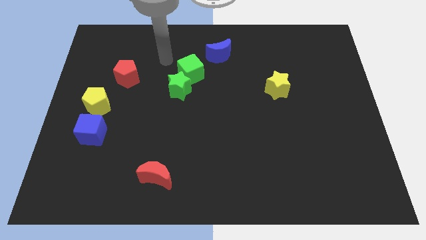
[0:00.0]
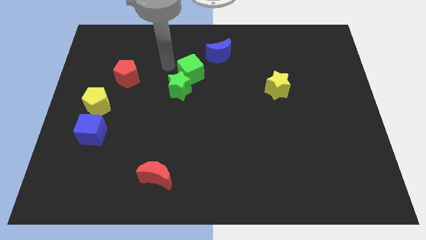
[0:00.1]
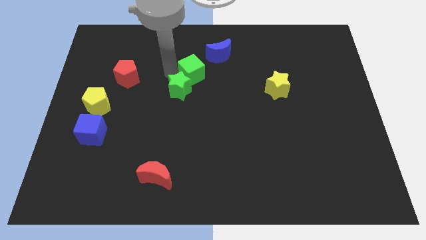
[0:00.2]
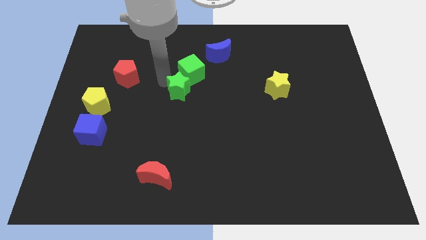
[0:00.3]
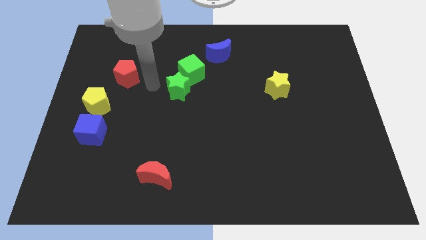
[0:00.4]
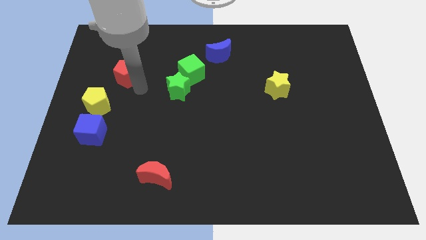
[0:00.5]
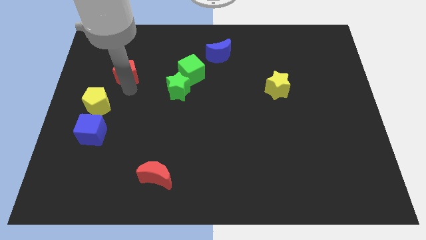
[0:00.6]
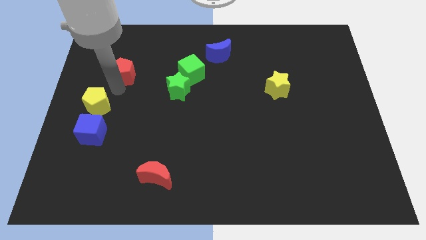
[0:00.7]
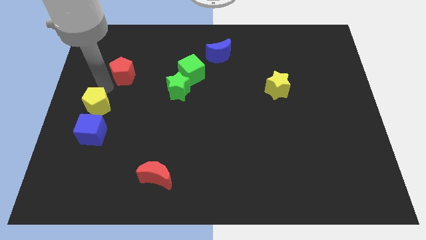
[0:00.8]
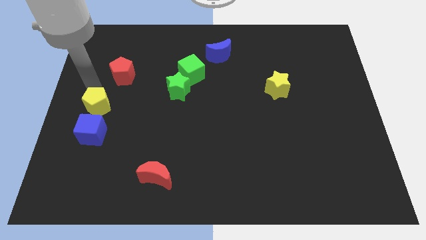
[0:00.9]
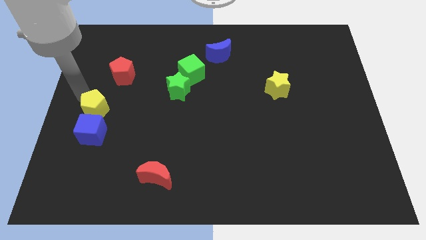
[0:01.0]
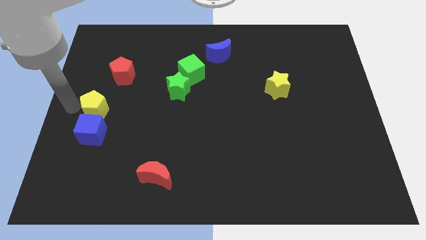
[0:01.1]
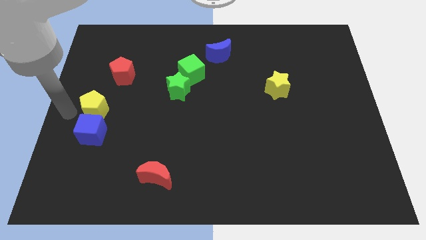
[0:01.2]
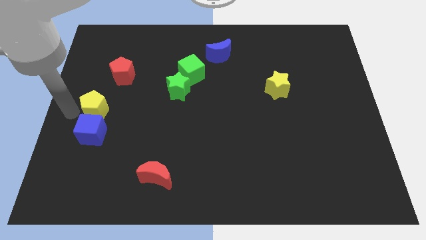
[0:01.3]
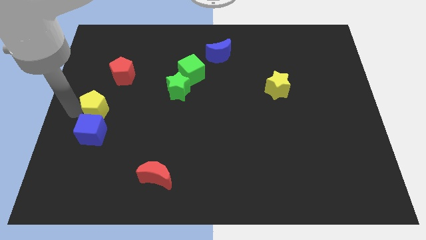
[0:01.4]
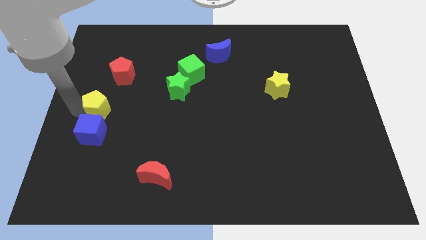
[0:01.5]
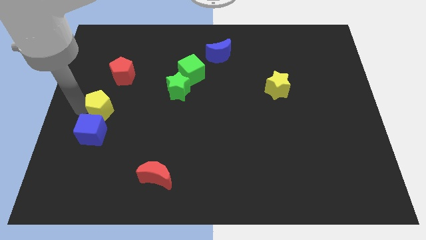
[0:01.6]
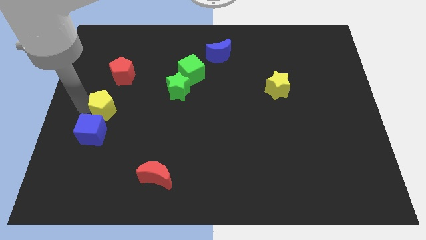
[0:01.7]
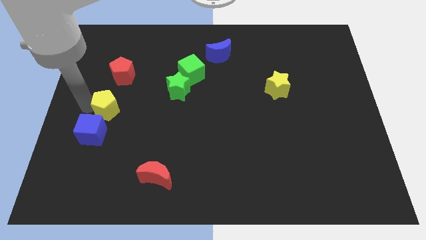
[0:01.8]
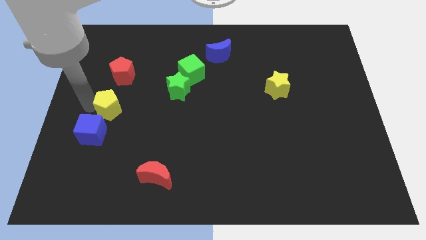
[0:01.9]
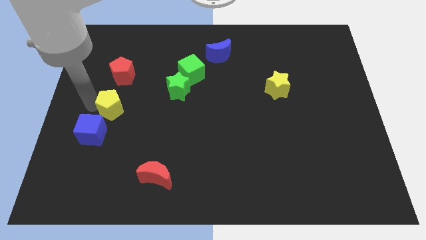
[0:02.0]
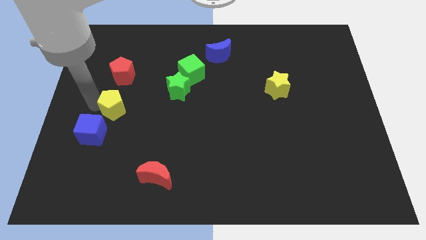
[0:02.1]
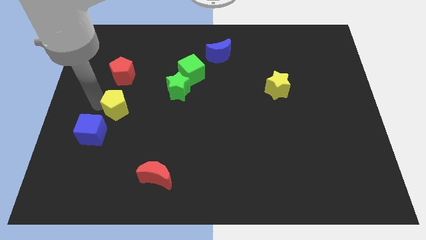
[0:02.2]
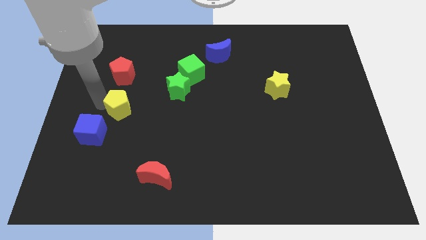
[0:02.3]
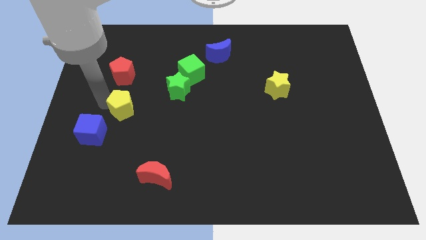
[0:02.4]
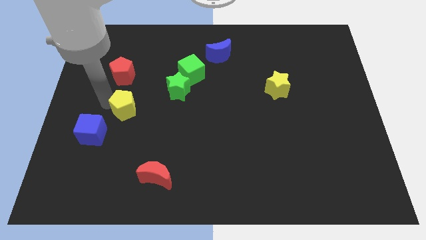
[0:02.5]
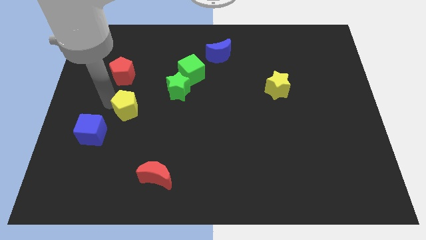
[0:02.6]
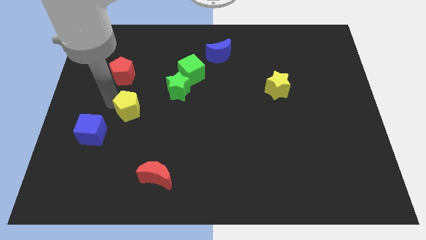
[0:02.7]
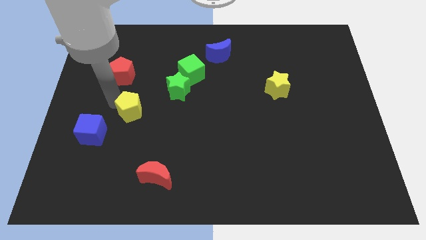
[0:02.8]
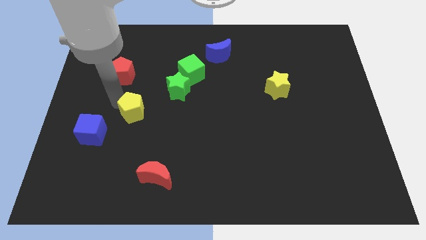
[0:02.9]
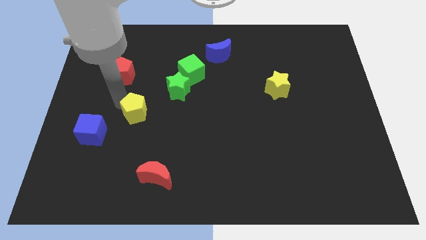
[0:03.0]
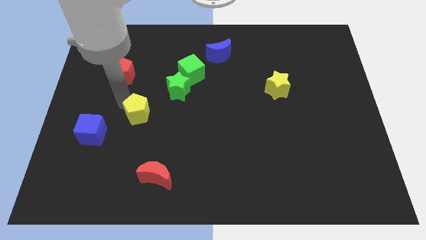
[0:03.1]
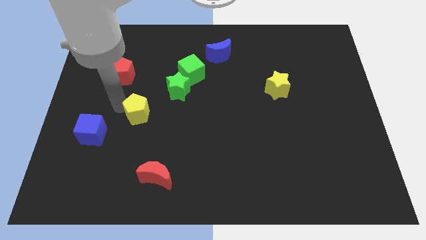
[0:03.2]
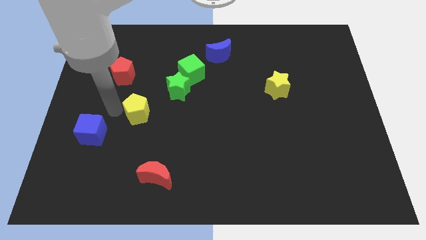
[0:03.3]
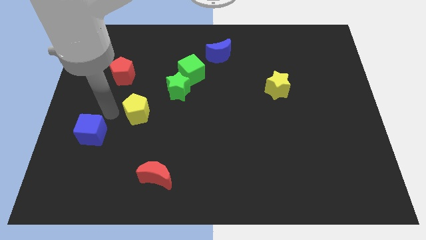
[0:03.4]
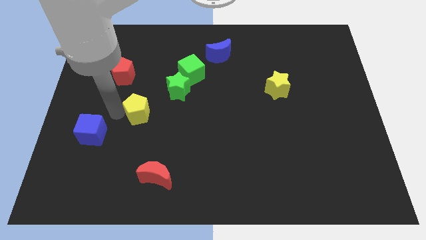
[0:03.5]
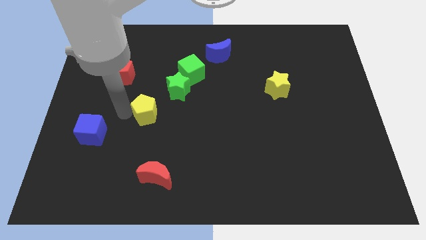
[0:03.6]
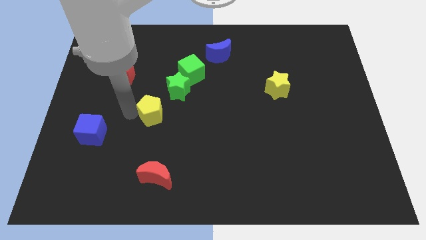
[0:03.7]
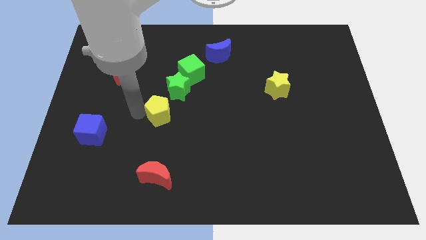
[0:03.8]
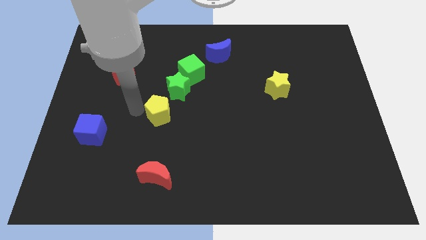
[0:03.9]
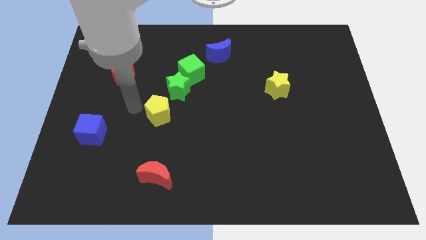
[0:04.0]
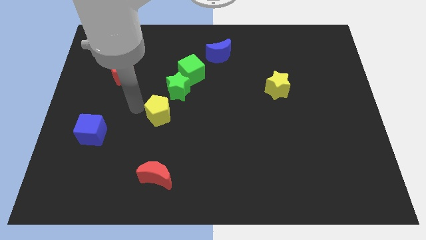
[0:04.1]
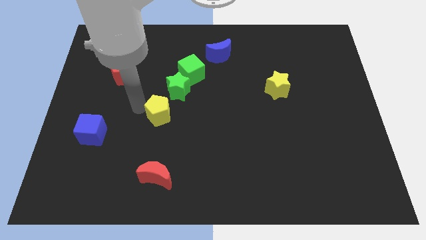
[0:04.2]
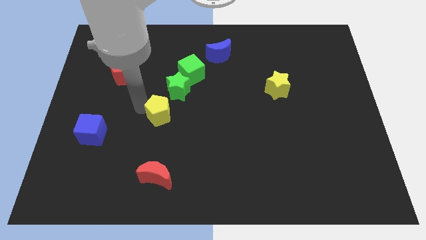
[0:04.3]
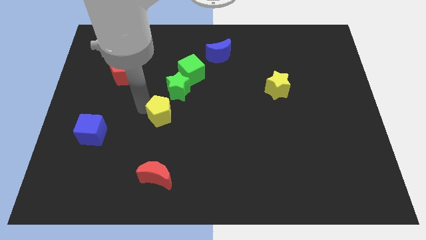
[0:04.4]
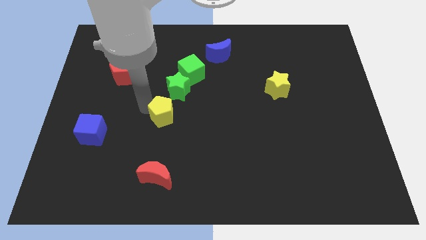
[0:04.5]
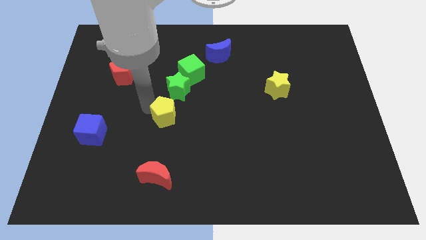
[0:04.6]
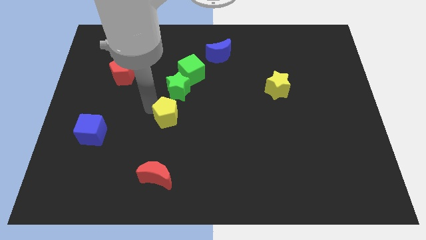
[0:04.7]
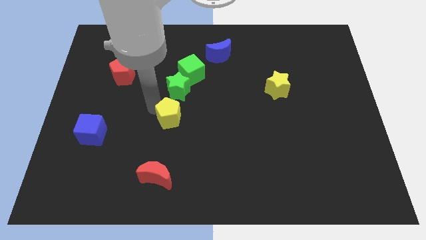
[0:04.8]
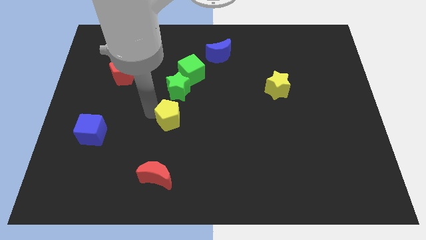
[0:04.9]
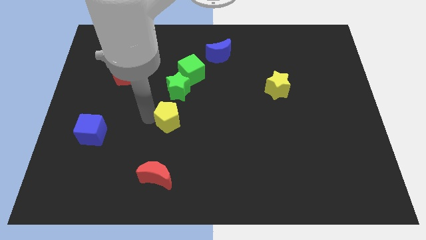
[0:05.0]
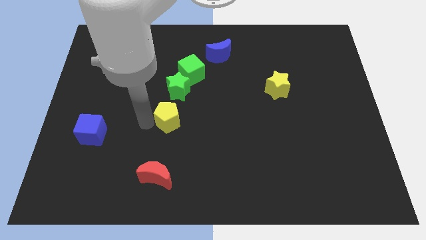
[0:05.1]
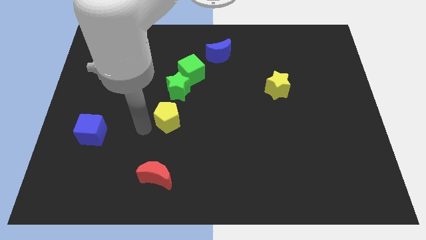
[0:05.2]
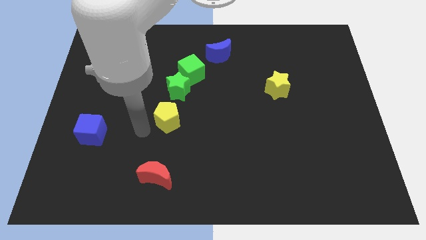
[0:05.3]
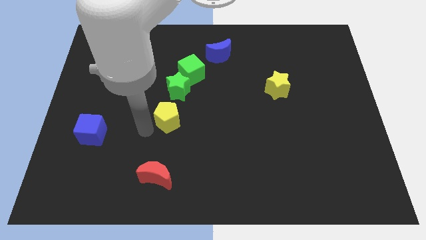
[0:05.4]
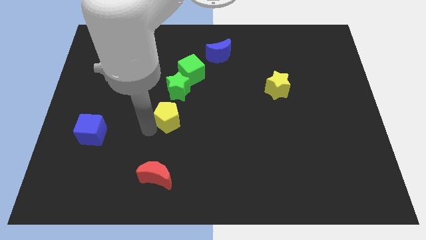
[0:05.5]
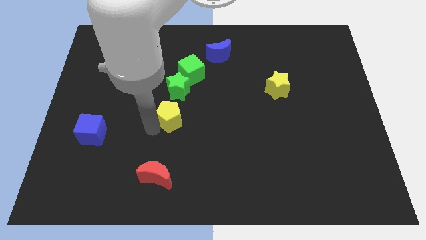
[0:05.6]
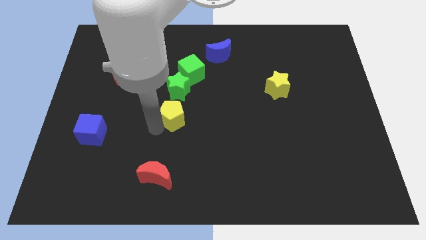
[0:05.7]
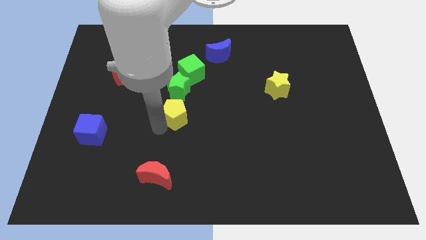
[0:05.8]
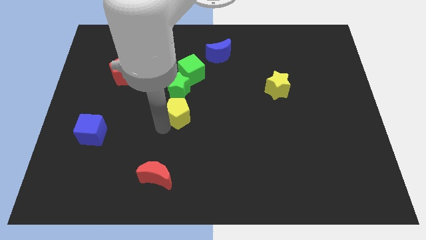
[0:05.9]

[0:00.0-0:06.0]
move the yellow pentagon to the bottom right of the green star

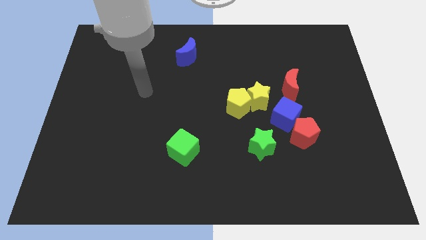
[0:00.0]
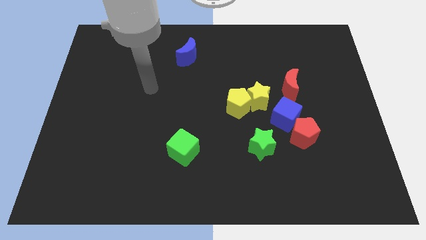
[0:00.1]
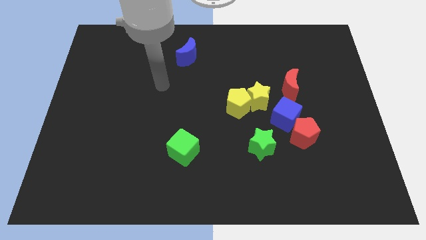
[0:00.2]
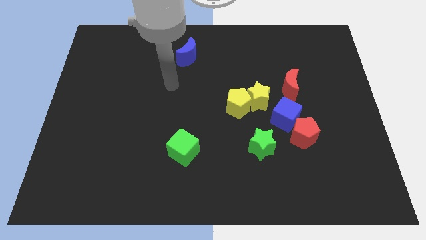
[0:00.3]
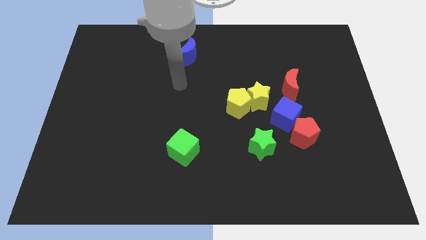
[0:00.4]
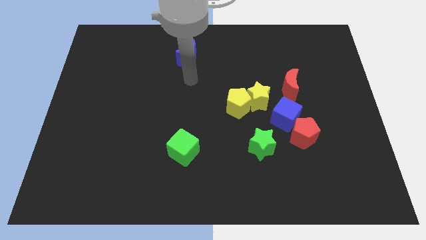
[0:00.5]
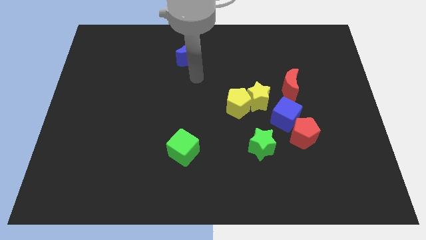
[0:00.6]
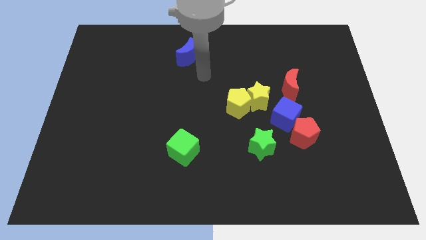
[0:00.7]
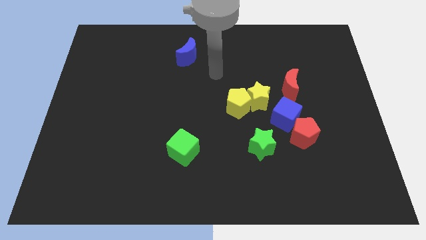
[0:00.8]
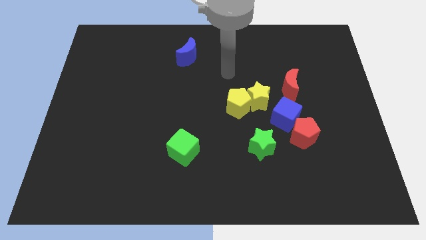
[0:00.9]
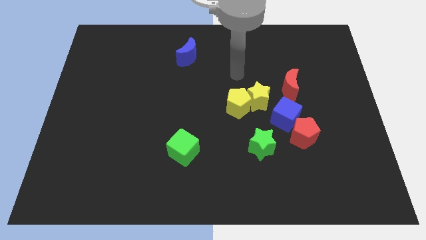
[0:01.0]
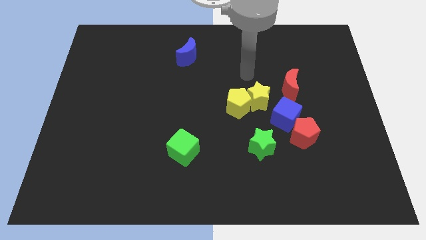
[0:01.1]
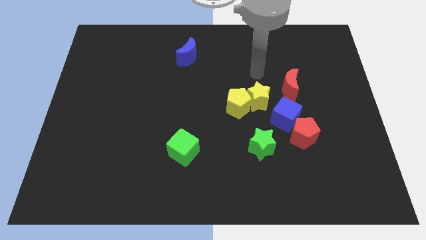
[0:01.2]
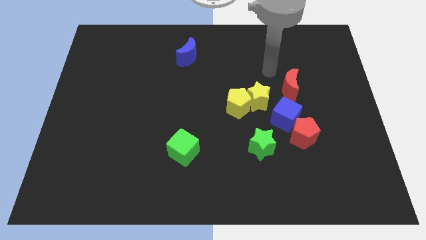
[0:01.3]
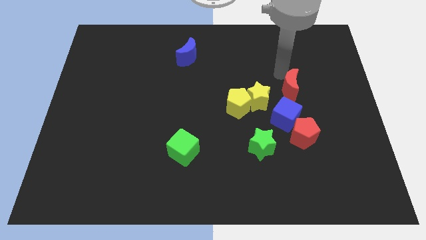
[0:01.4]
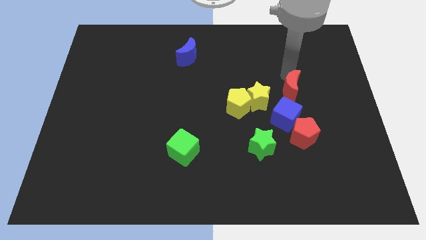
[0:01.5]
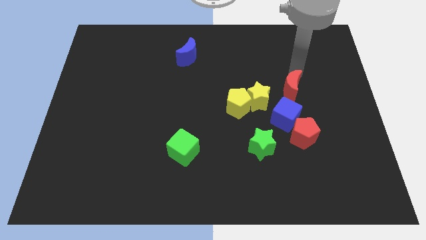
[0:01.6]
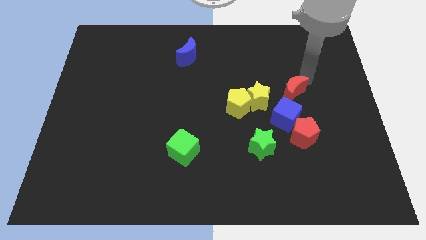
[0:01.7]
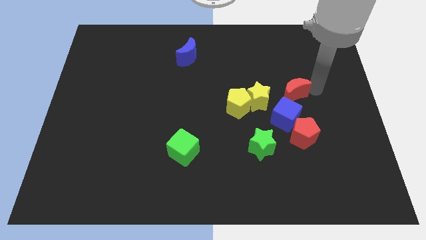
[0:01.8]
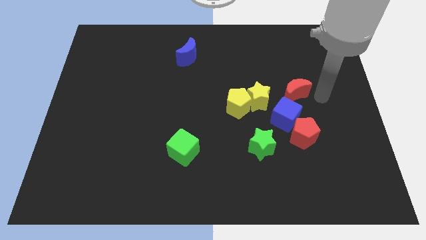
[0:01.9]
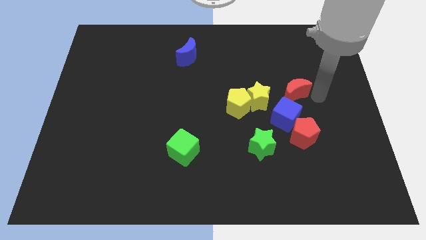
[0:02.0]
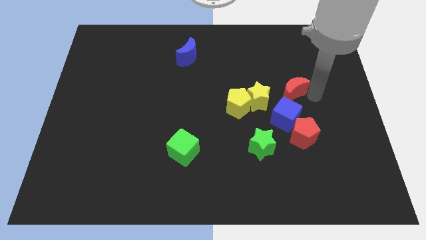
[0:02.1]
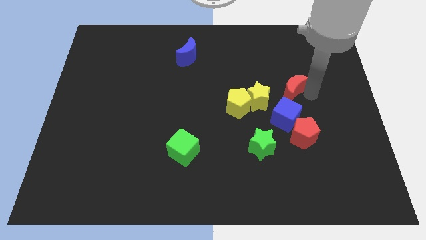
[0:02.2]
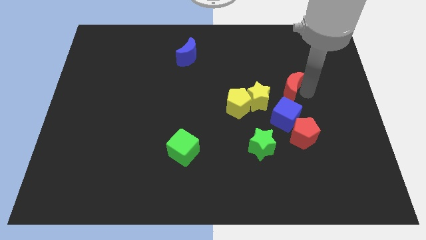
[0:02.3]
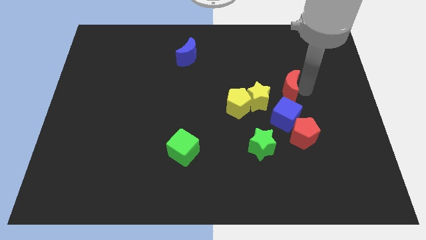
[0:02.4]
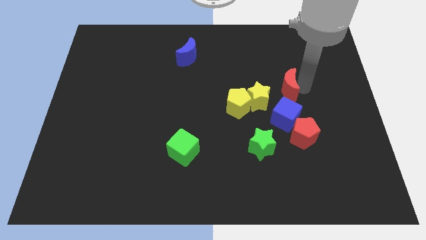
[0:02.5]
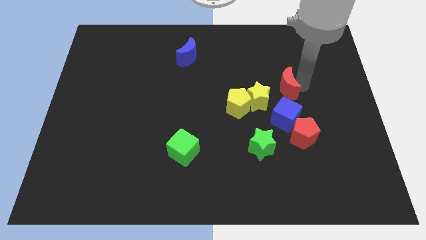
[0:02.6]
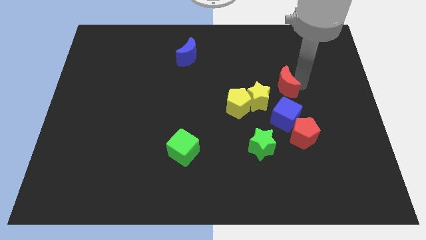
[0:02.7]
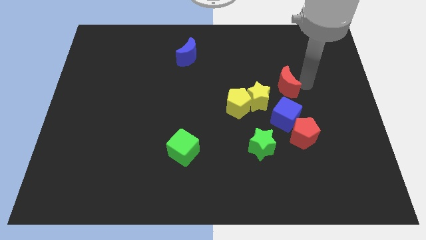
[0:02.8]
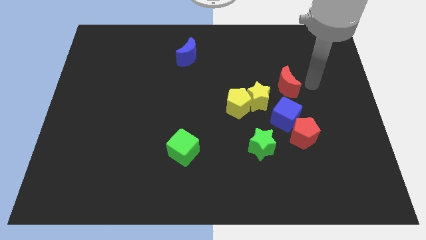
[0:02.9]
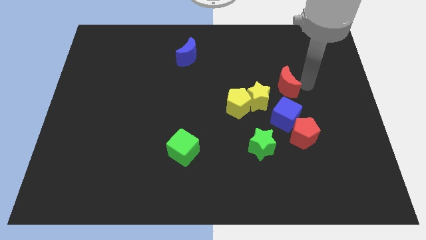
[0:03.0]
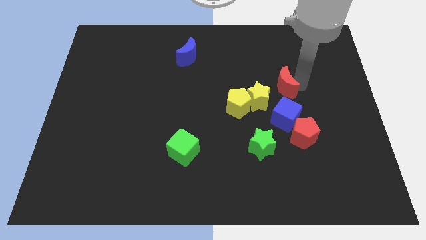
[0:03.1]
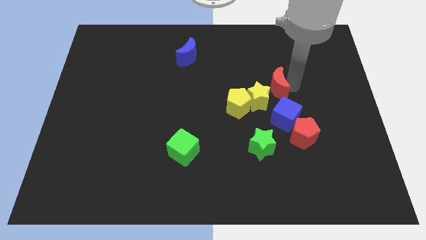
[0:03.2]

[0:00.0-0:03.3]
slide the red moon to the top right side of the yellow pentagon
